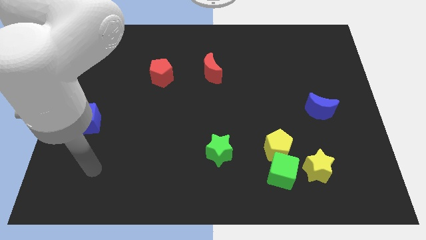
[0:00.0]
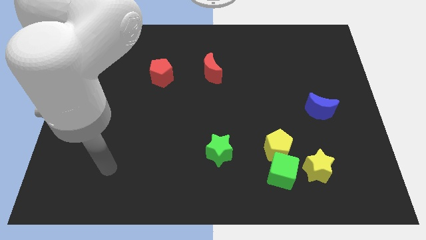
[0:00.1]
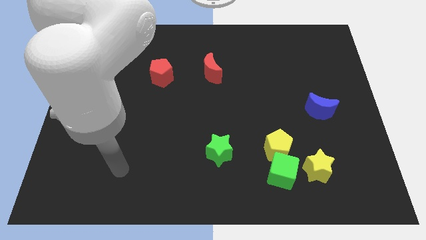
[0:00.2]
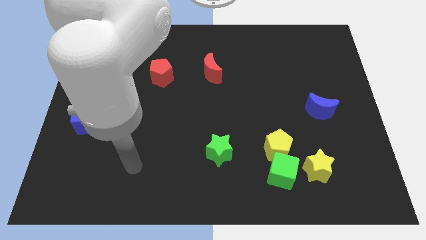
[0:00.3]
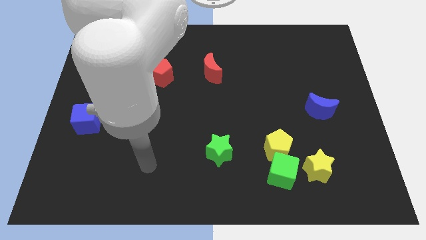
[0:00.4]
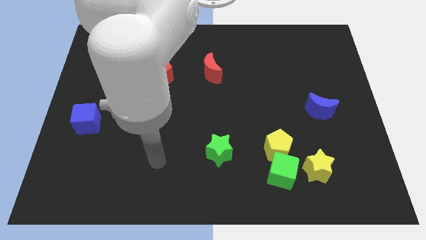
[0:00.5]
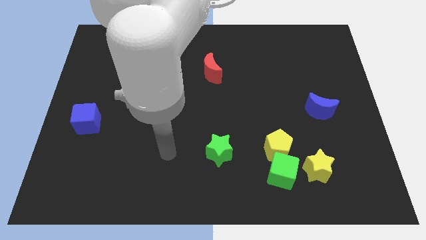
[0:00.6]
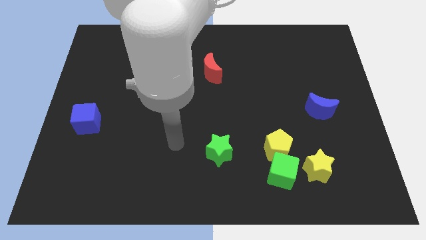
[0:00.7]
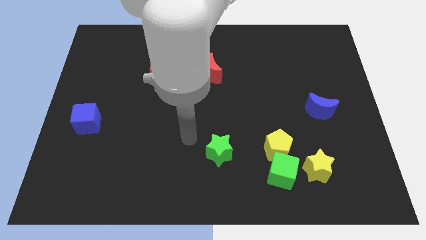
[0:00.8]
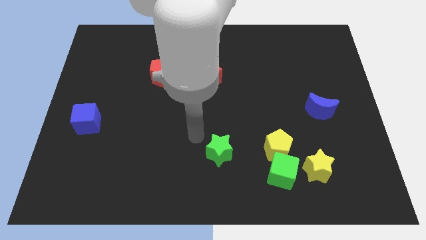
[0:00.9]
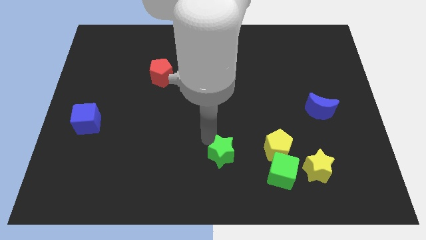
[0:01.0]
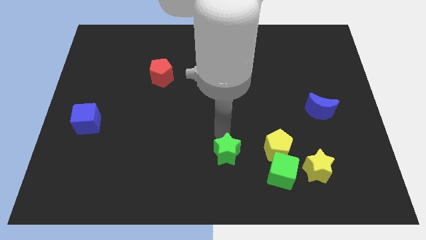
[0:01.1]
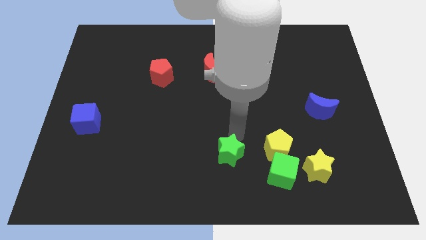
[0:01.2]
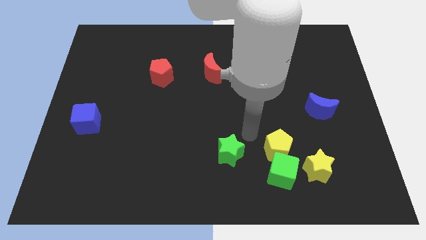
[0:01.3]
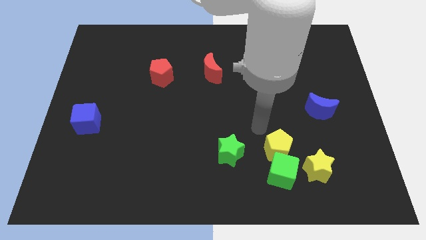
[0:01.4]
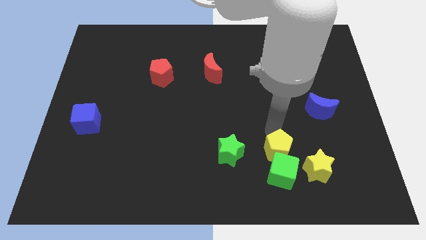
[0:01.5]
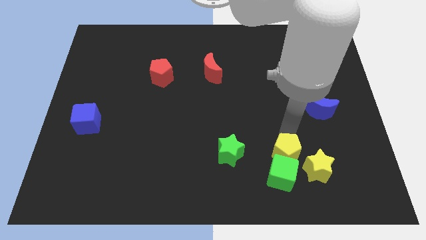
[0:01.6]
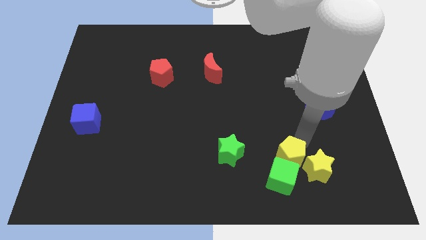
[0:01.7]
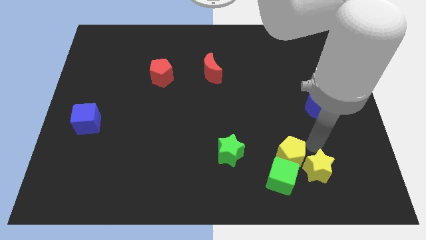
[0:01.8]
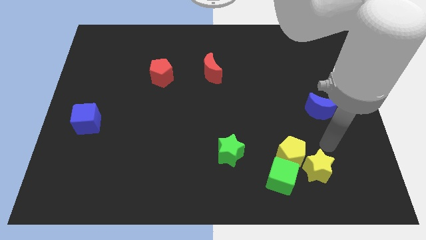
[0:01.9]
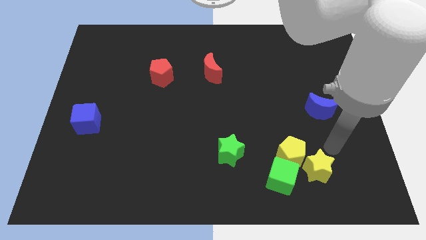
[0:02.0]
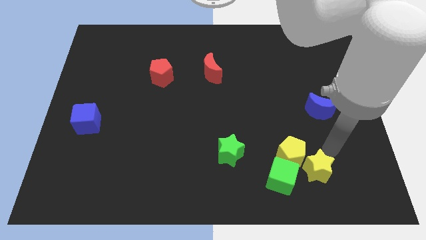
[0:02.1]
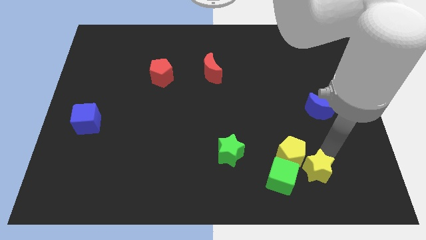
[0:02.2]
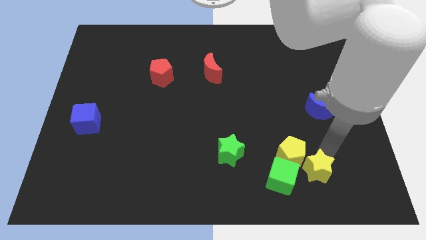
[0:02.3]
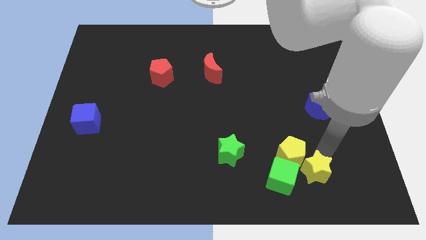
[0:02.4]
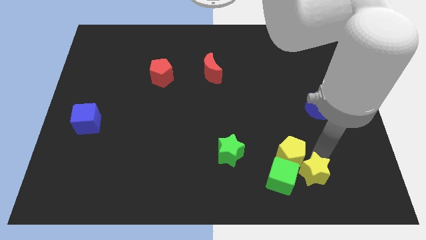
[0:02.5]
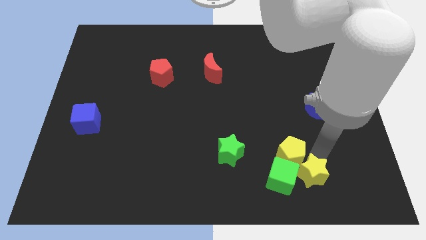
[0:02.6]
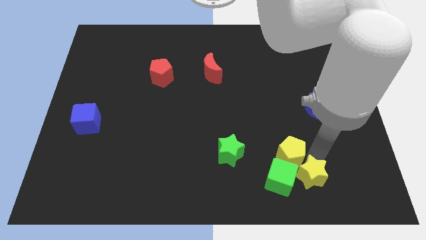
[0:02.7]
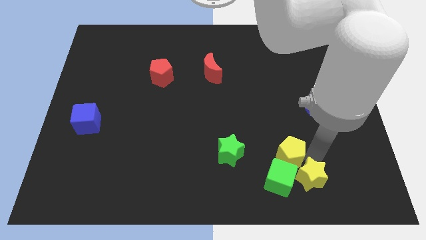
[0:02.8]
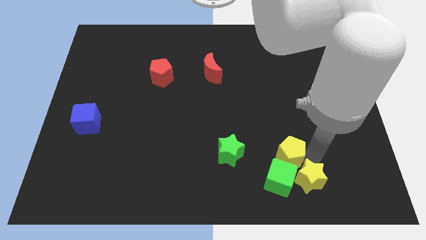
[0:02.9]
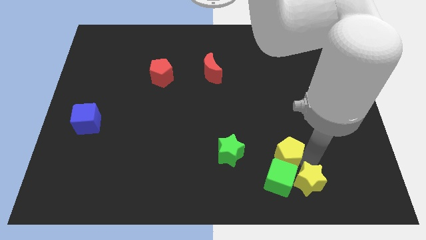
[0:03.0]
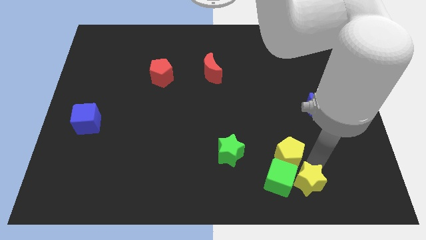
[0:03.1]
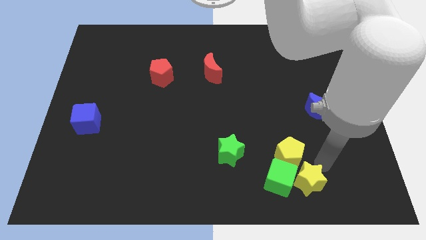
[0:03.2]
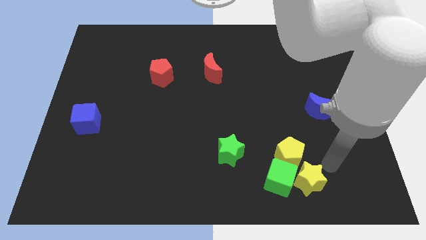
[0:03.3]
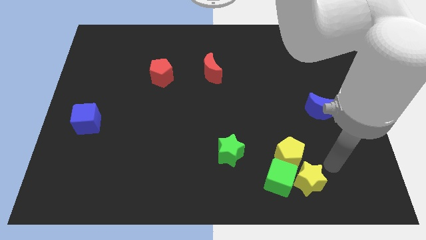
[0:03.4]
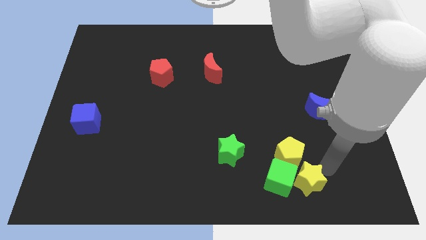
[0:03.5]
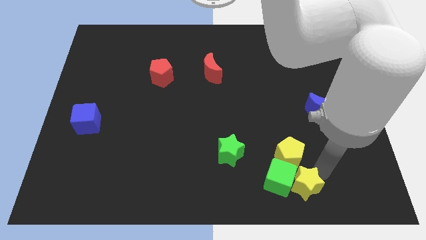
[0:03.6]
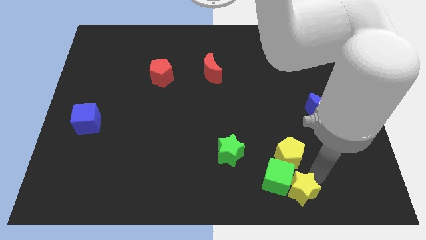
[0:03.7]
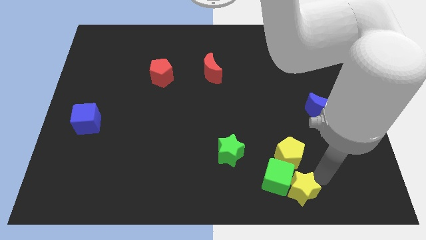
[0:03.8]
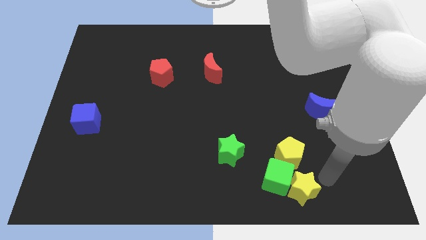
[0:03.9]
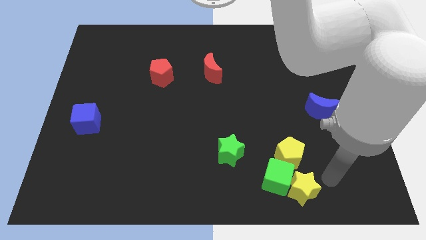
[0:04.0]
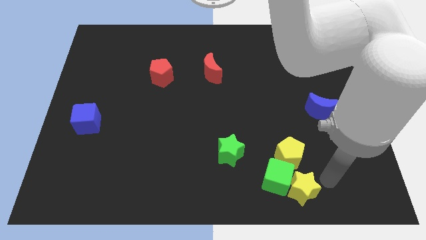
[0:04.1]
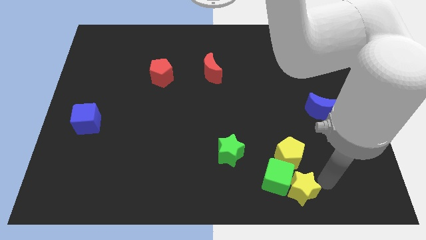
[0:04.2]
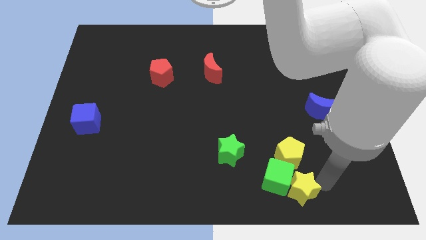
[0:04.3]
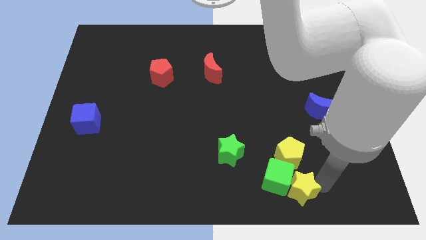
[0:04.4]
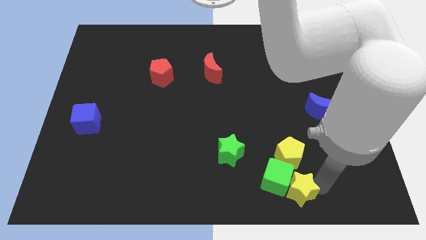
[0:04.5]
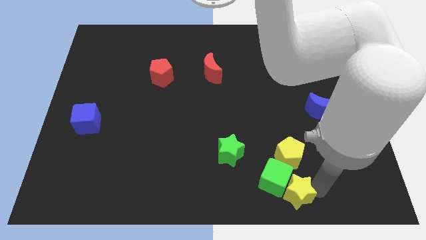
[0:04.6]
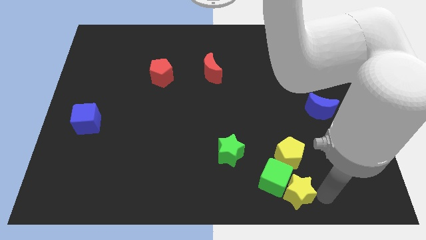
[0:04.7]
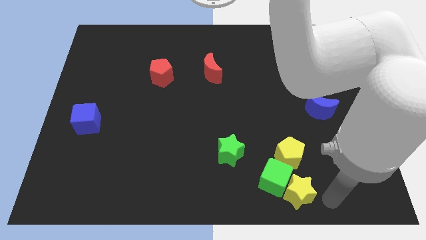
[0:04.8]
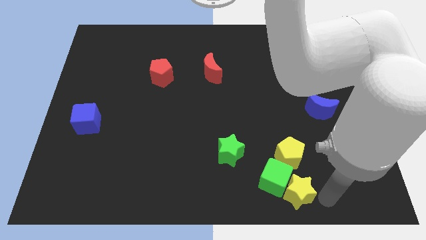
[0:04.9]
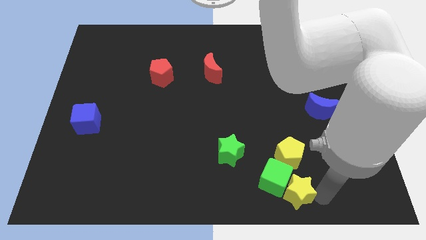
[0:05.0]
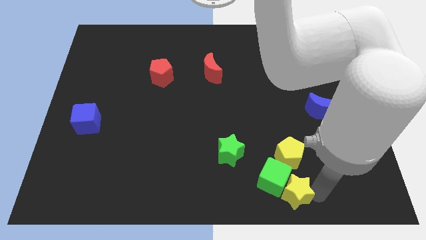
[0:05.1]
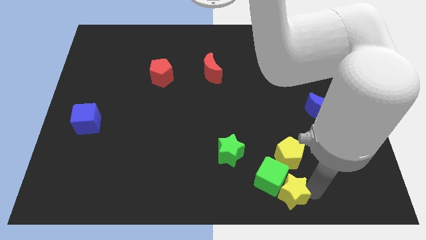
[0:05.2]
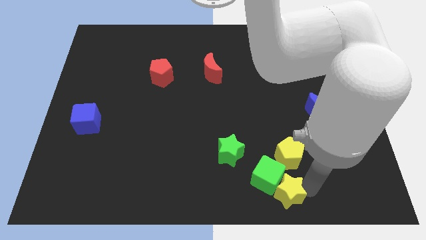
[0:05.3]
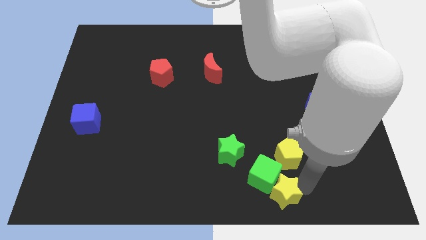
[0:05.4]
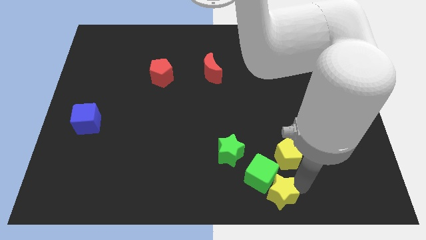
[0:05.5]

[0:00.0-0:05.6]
move the yellow star somewhat left

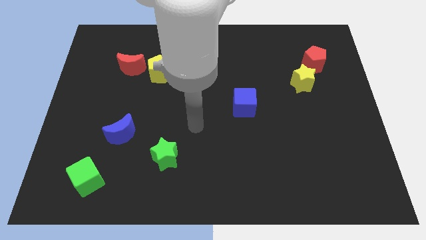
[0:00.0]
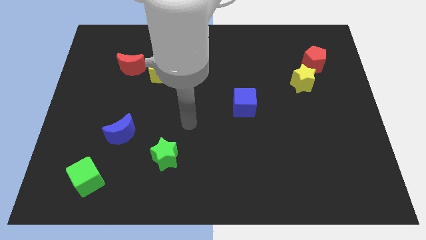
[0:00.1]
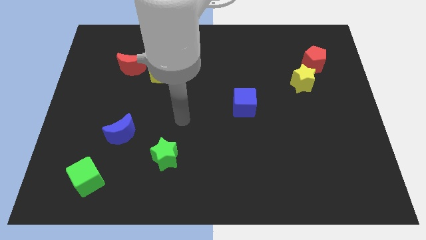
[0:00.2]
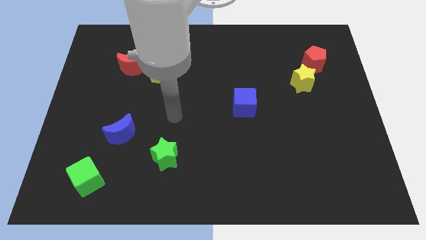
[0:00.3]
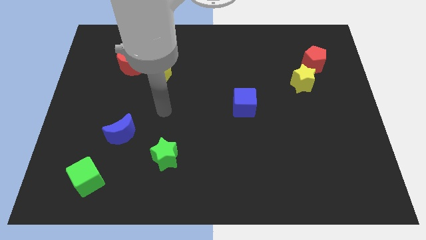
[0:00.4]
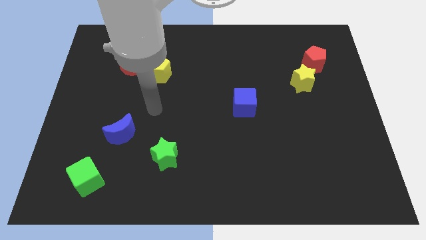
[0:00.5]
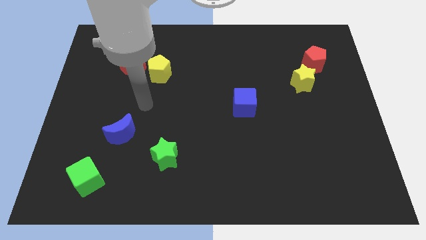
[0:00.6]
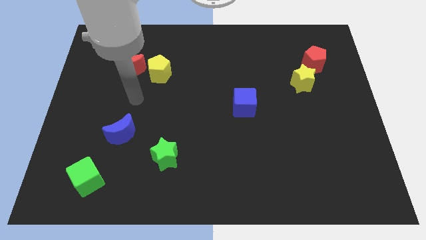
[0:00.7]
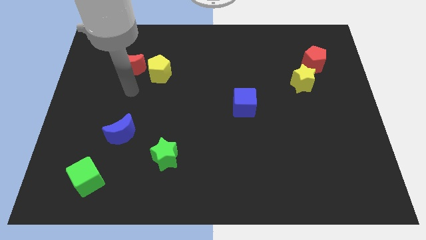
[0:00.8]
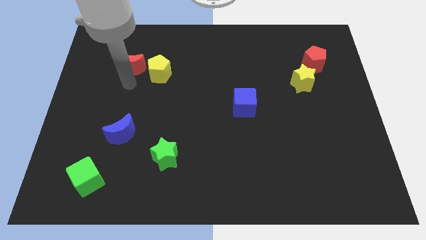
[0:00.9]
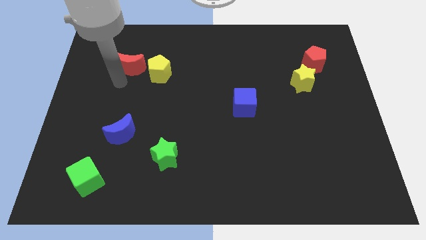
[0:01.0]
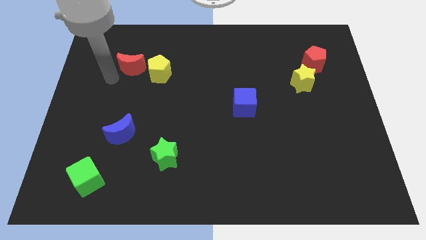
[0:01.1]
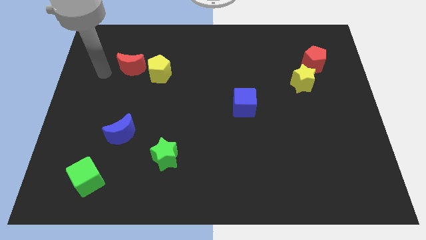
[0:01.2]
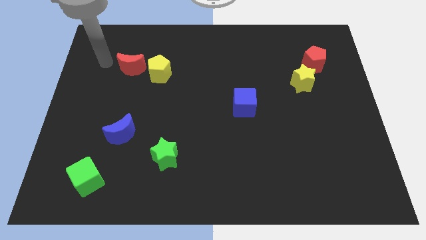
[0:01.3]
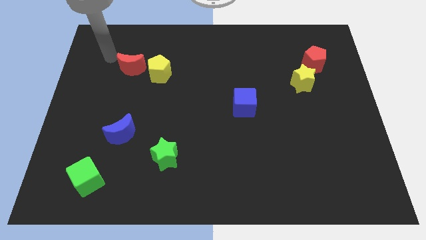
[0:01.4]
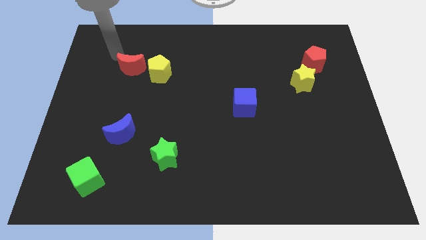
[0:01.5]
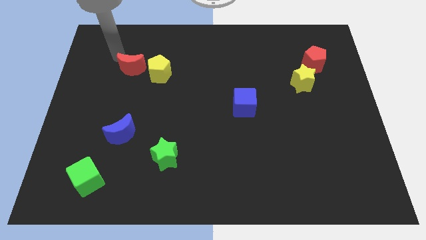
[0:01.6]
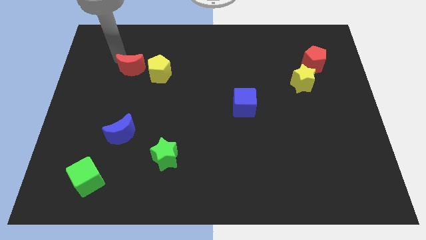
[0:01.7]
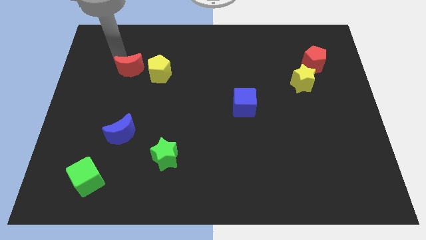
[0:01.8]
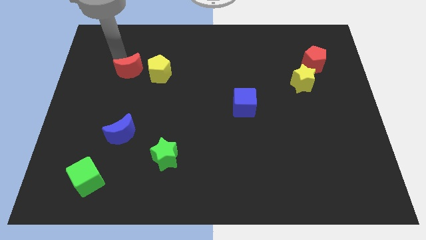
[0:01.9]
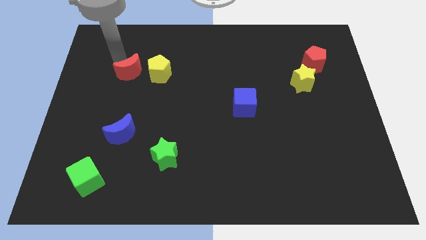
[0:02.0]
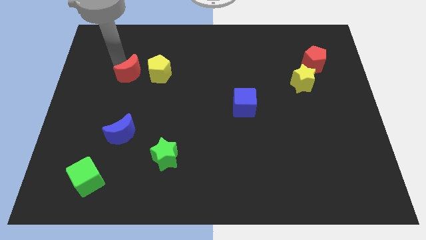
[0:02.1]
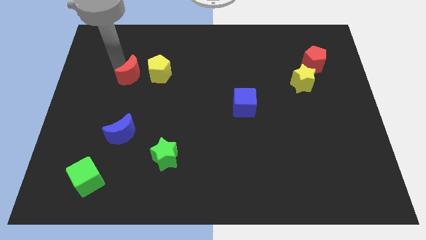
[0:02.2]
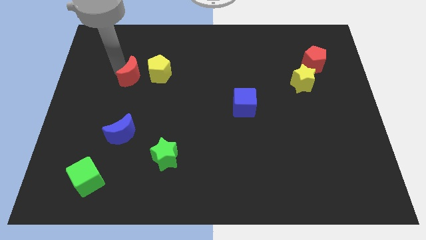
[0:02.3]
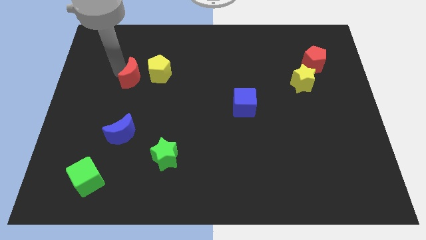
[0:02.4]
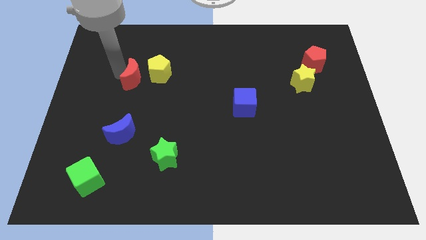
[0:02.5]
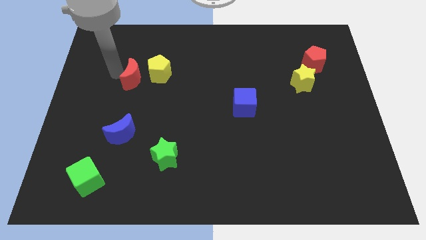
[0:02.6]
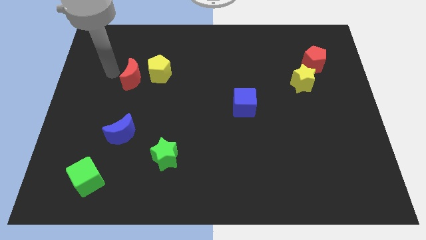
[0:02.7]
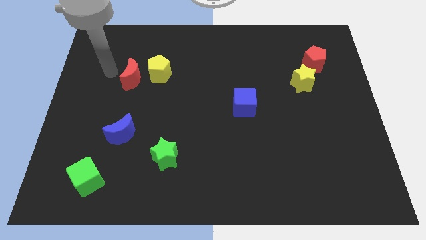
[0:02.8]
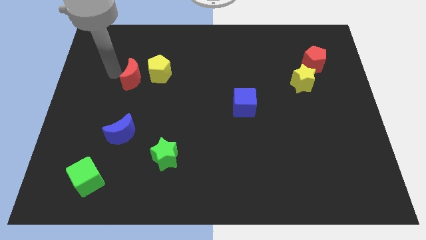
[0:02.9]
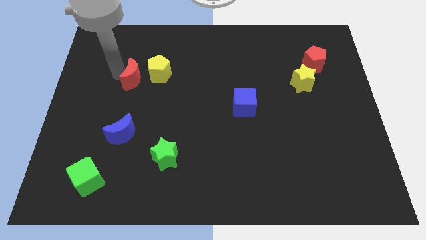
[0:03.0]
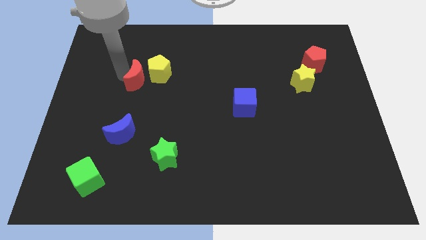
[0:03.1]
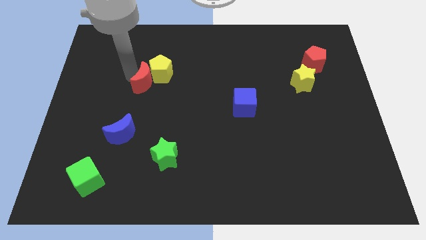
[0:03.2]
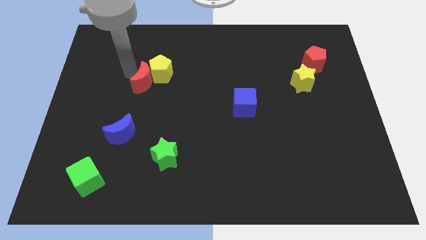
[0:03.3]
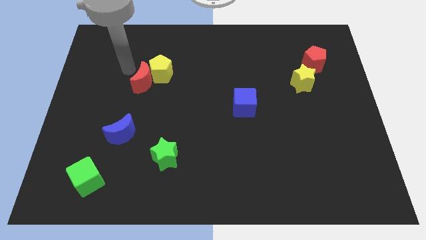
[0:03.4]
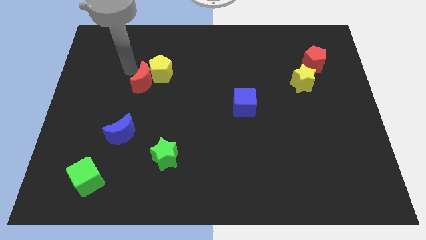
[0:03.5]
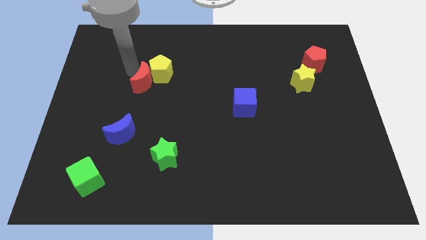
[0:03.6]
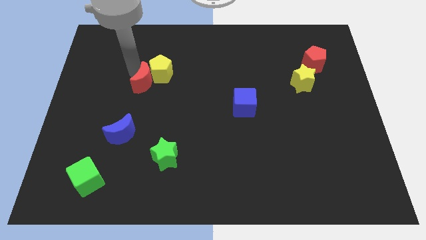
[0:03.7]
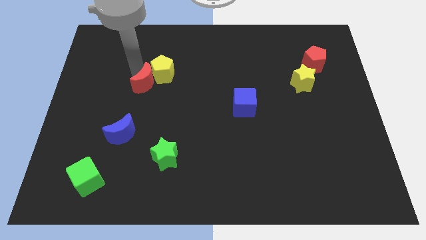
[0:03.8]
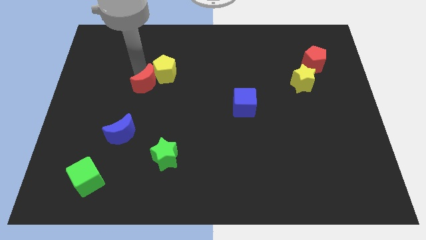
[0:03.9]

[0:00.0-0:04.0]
move the red moon diagonally down and to the right slightly
